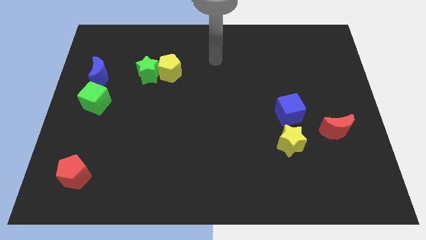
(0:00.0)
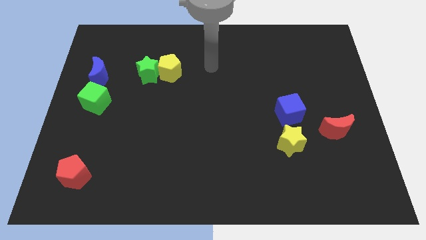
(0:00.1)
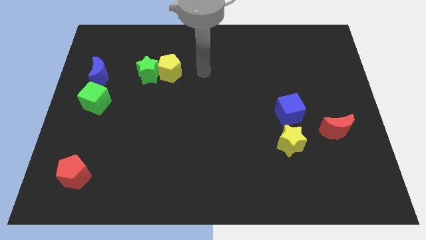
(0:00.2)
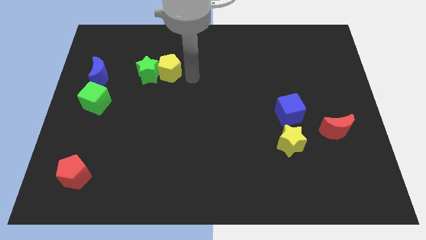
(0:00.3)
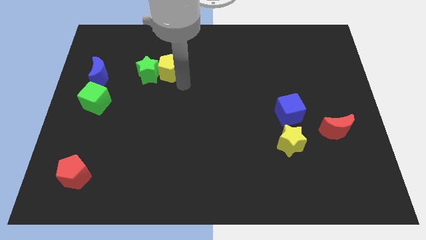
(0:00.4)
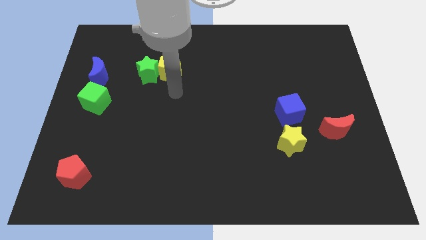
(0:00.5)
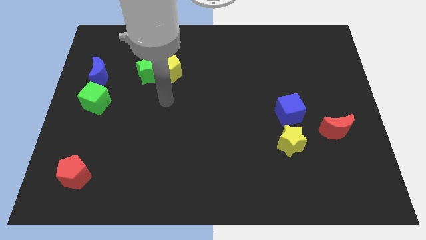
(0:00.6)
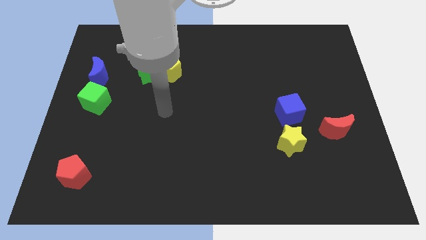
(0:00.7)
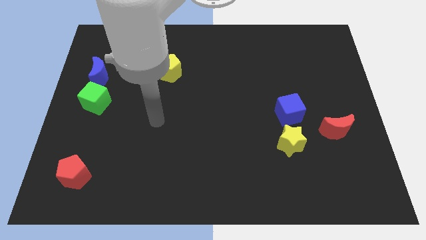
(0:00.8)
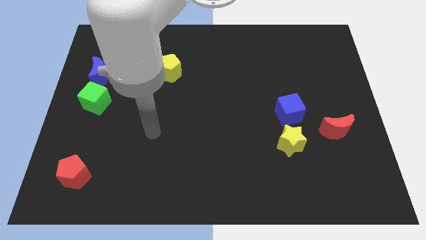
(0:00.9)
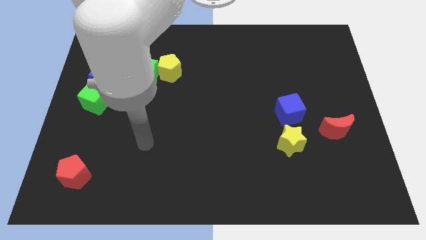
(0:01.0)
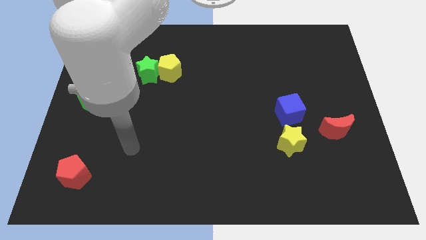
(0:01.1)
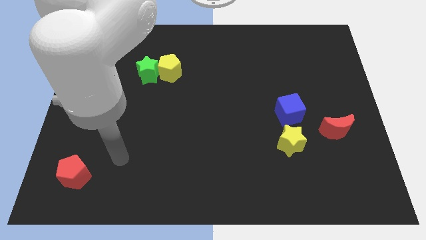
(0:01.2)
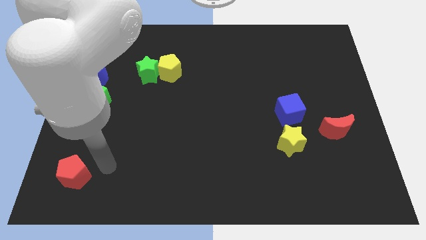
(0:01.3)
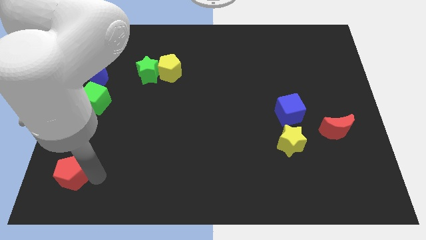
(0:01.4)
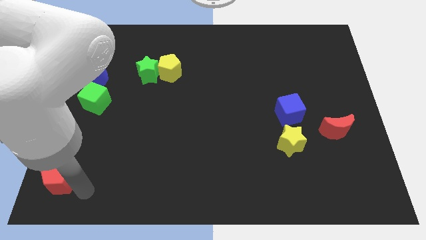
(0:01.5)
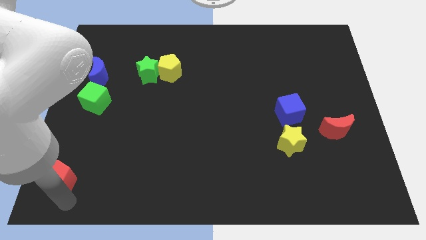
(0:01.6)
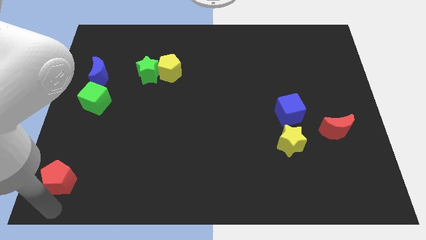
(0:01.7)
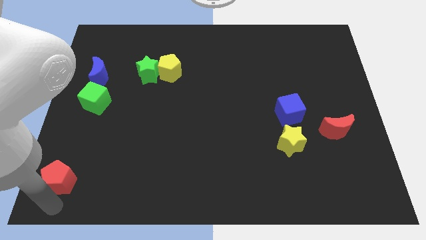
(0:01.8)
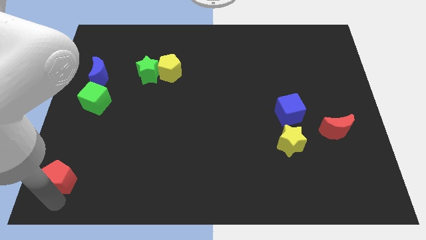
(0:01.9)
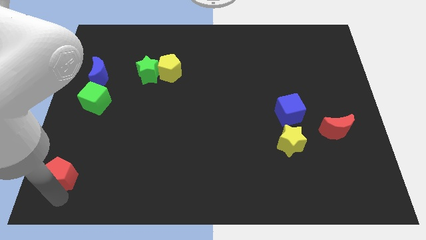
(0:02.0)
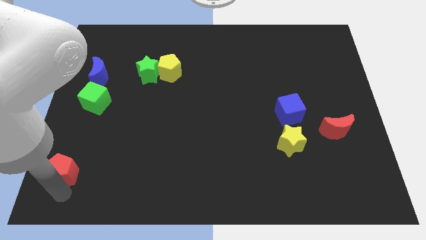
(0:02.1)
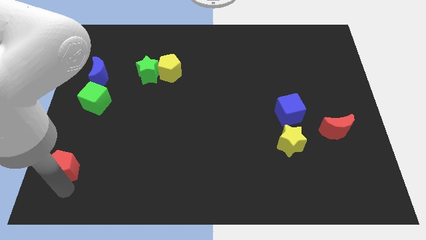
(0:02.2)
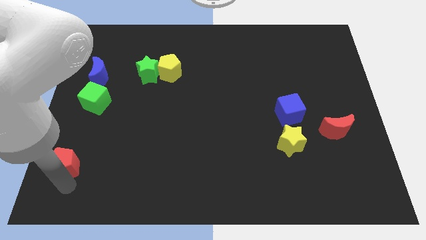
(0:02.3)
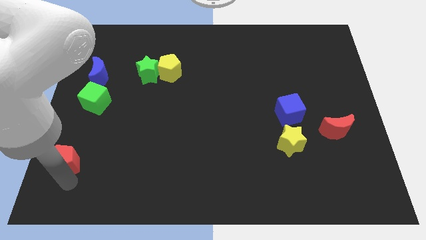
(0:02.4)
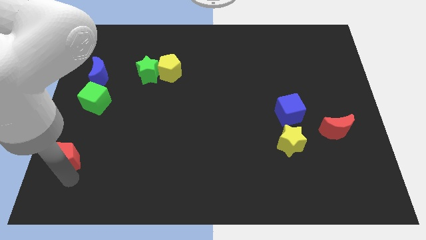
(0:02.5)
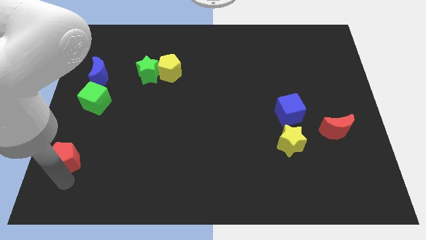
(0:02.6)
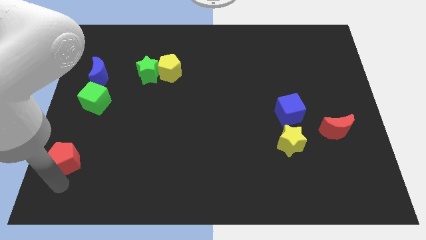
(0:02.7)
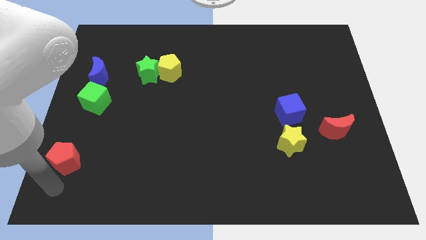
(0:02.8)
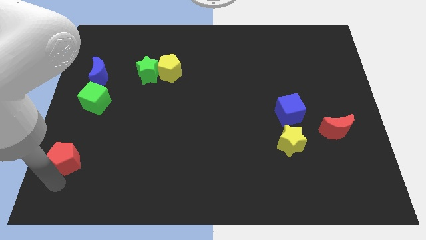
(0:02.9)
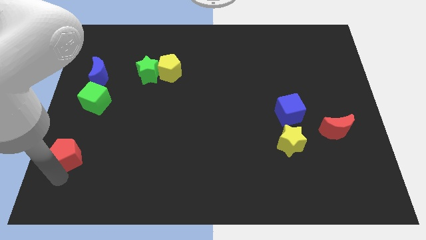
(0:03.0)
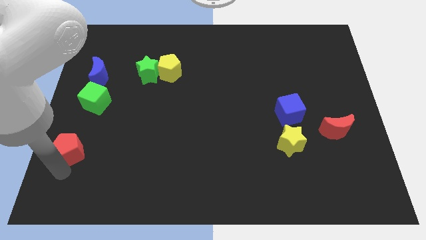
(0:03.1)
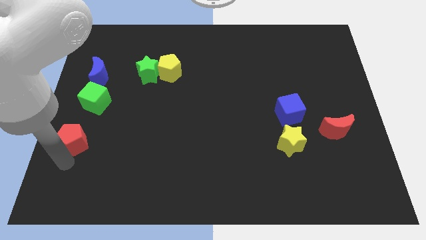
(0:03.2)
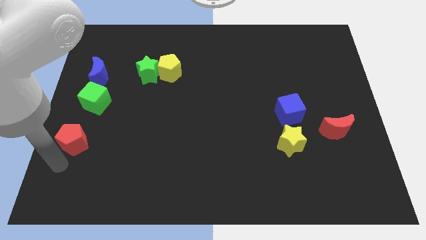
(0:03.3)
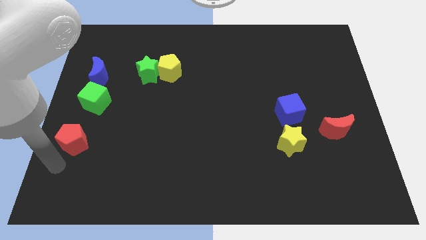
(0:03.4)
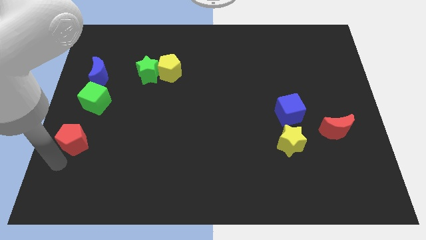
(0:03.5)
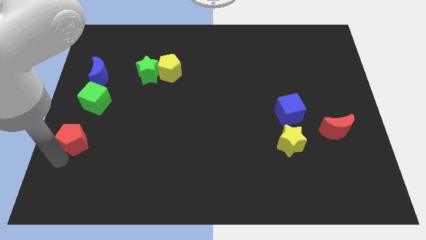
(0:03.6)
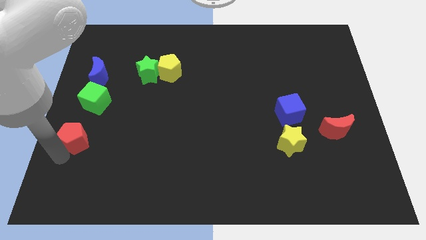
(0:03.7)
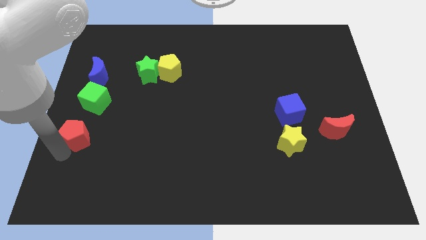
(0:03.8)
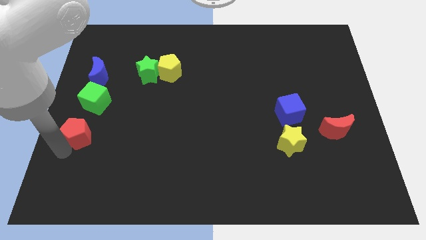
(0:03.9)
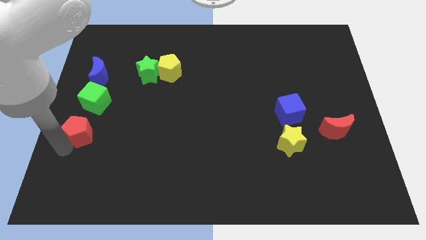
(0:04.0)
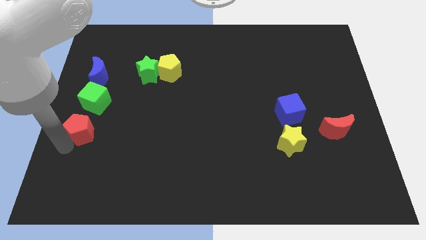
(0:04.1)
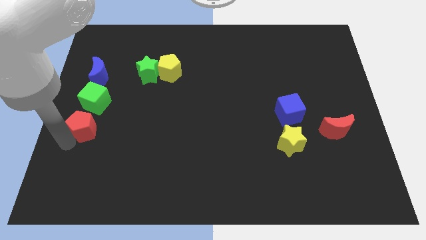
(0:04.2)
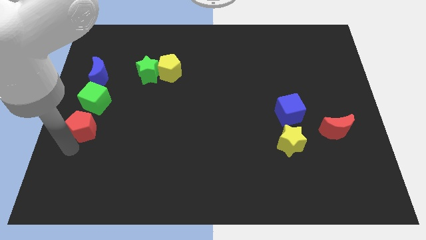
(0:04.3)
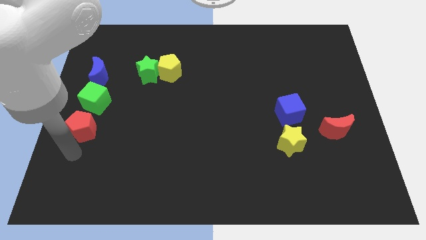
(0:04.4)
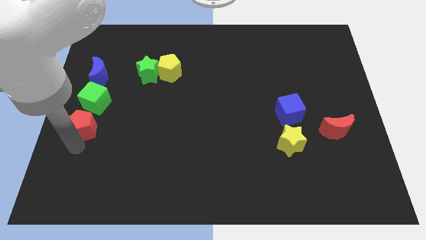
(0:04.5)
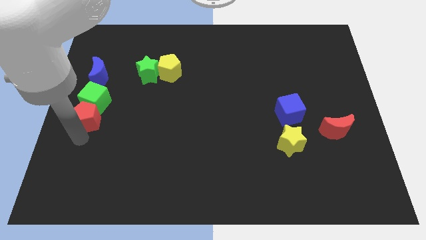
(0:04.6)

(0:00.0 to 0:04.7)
push the red pentagon next to the green cube

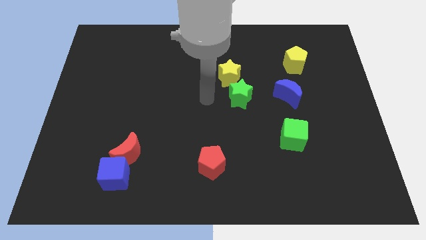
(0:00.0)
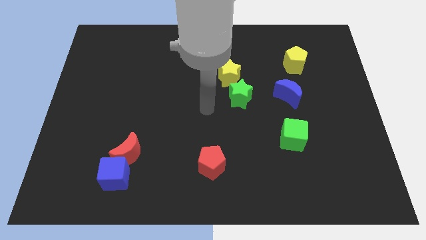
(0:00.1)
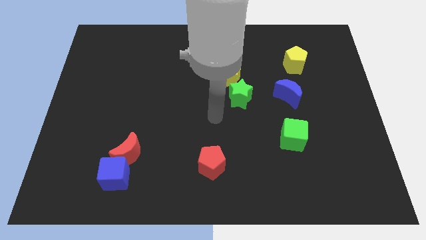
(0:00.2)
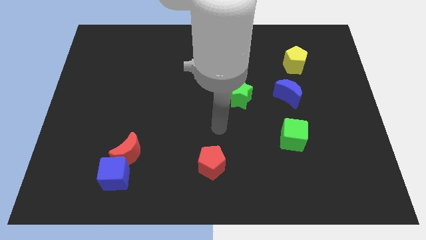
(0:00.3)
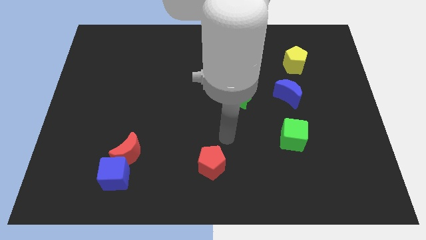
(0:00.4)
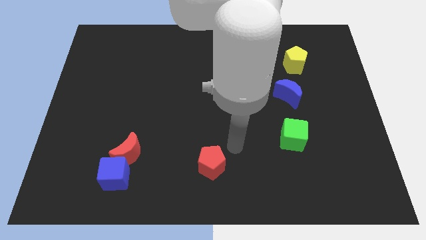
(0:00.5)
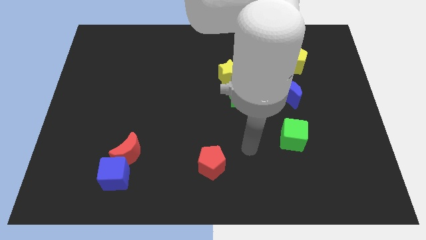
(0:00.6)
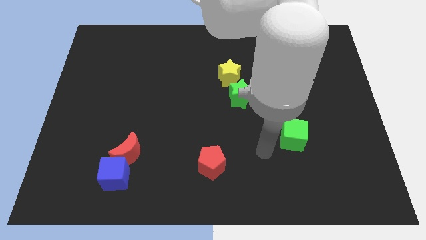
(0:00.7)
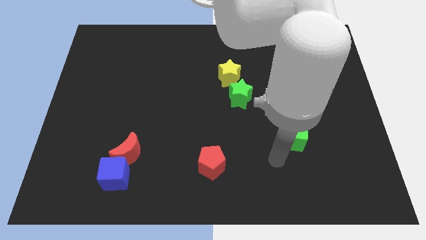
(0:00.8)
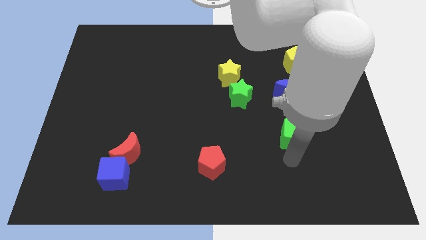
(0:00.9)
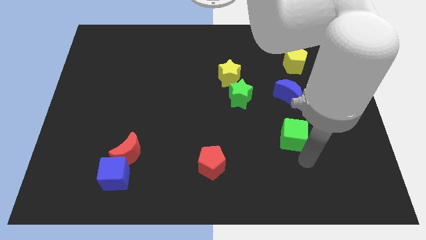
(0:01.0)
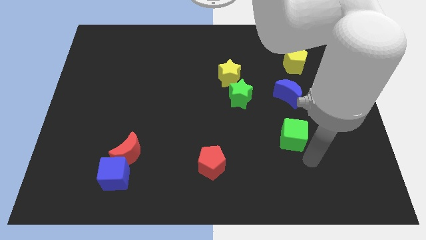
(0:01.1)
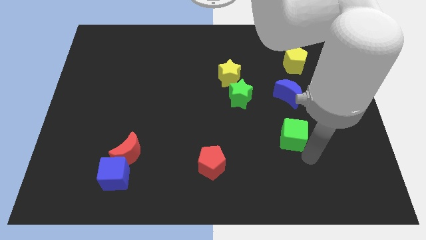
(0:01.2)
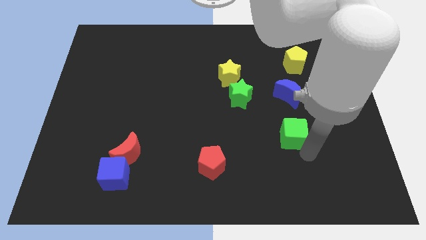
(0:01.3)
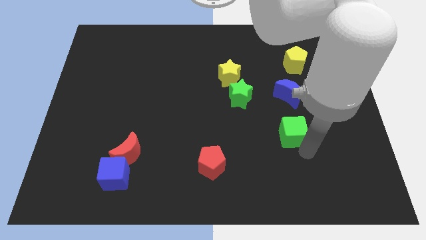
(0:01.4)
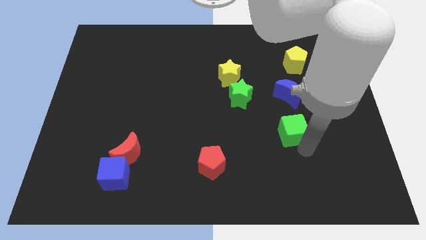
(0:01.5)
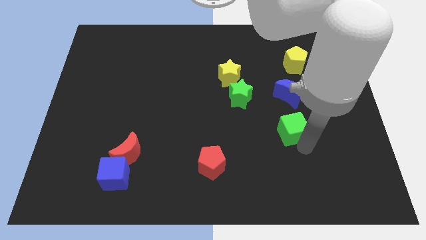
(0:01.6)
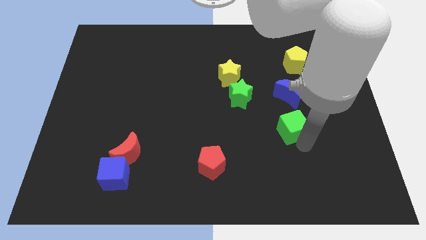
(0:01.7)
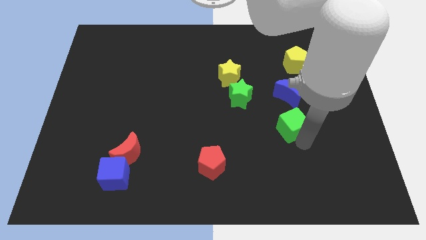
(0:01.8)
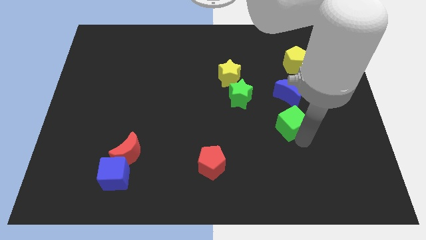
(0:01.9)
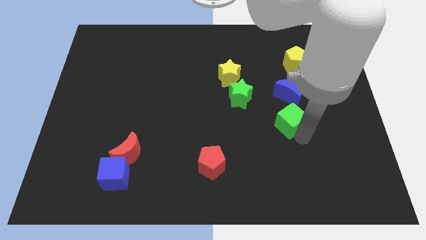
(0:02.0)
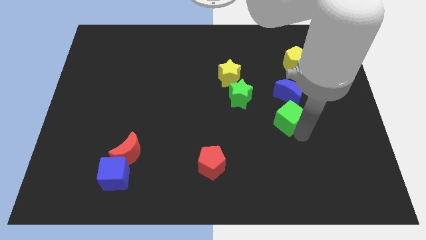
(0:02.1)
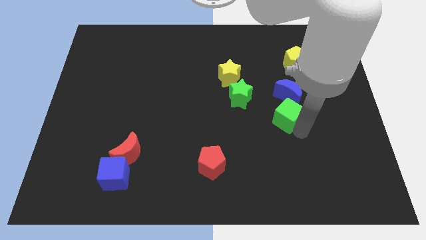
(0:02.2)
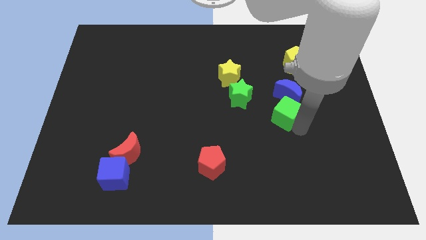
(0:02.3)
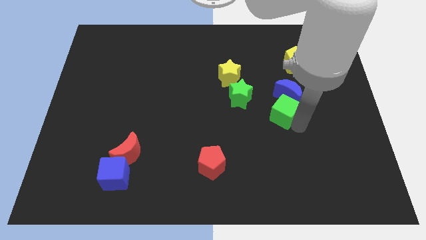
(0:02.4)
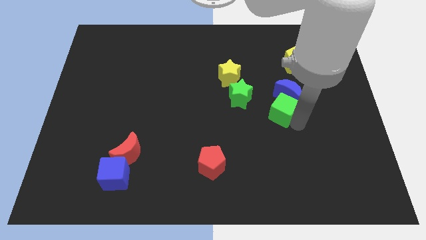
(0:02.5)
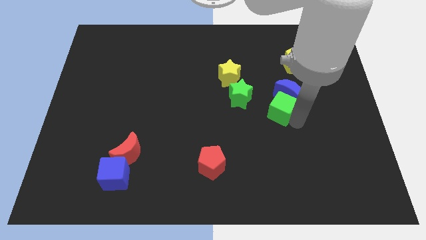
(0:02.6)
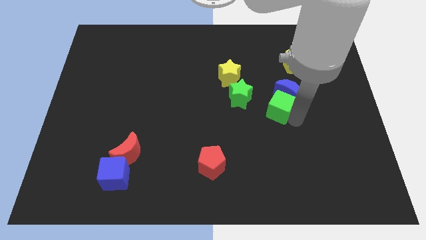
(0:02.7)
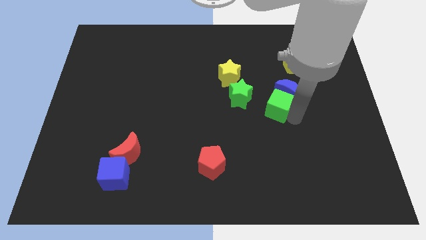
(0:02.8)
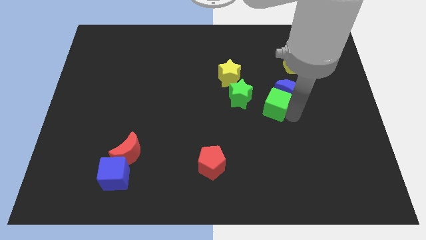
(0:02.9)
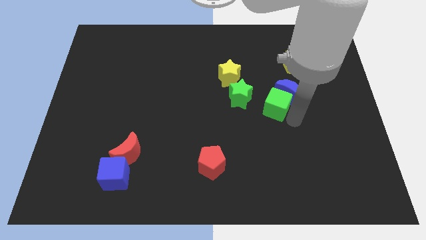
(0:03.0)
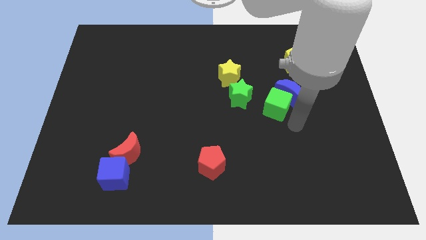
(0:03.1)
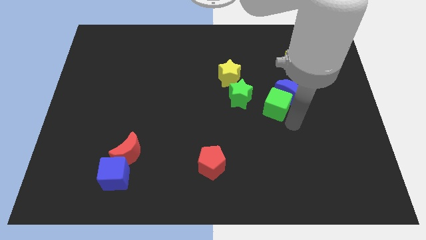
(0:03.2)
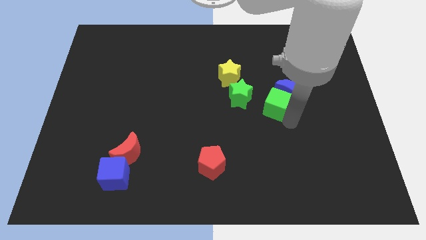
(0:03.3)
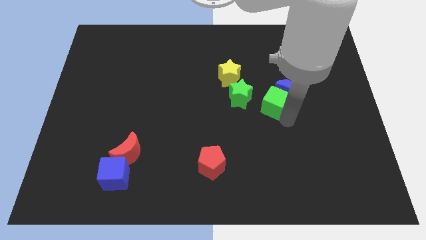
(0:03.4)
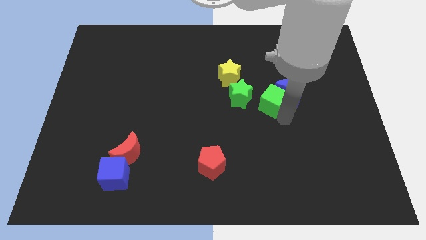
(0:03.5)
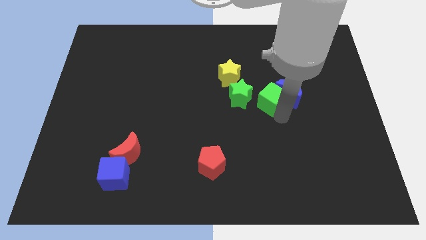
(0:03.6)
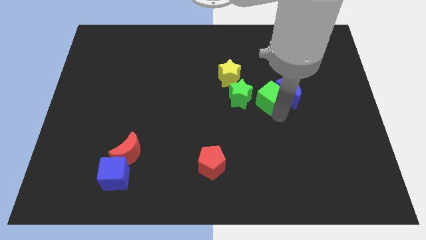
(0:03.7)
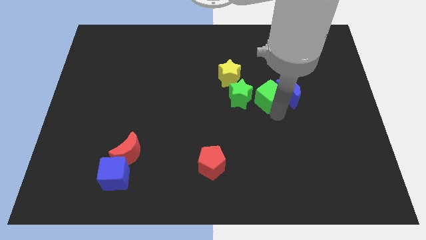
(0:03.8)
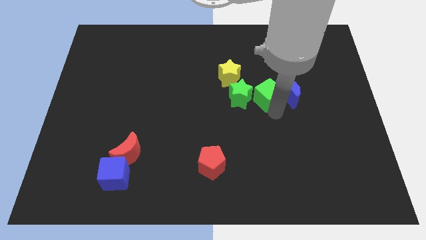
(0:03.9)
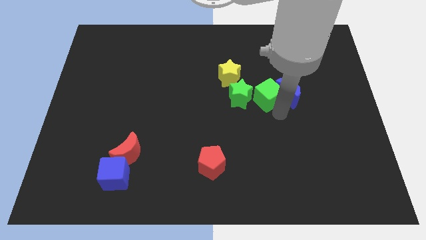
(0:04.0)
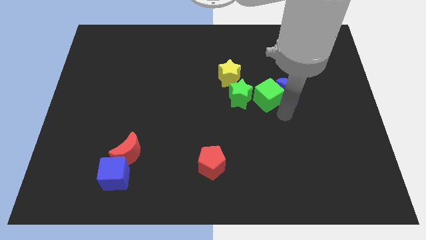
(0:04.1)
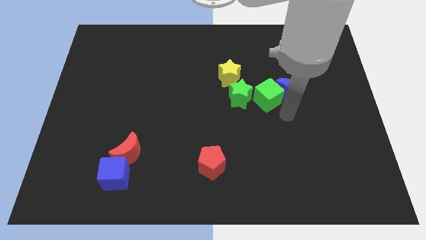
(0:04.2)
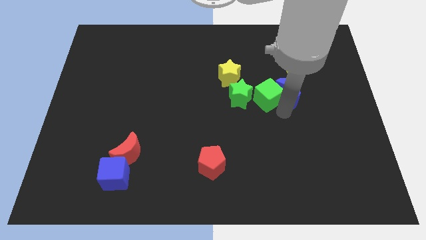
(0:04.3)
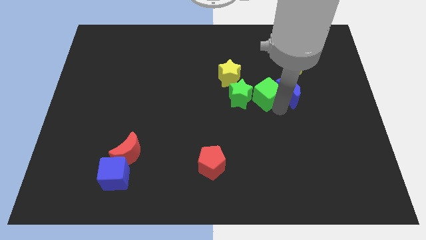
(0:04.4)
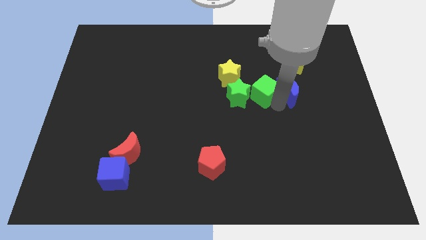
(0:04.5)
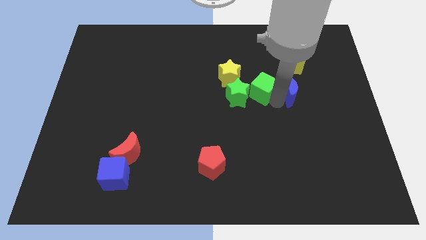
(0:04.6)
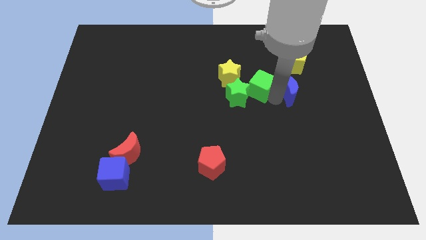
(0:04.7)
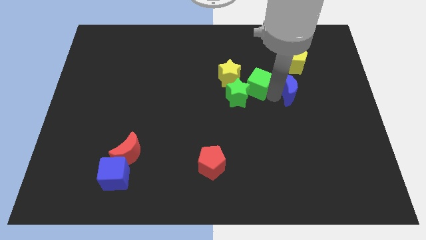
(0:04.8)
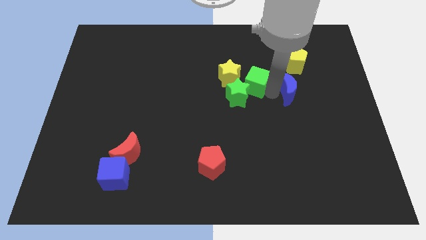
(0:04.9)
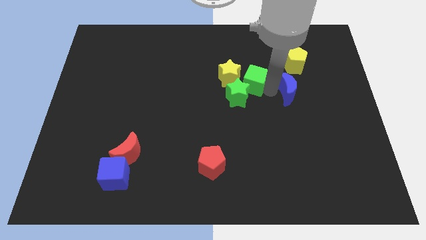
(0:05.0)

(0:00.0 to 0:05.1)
move the green cube towards the yellow star
